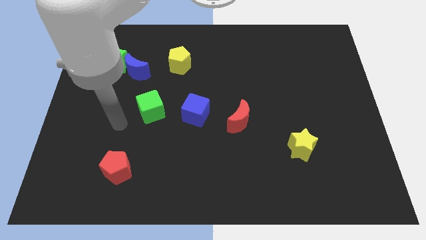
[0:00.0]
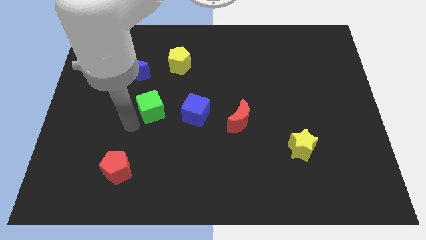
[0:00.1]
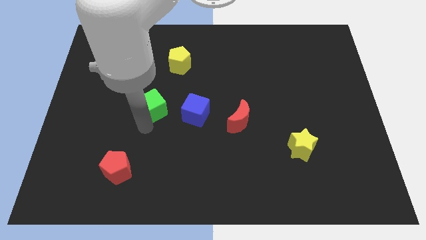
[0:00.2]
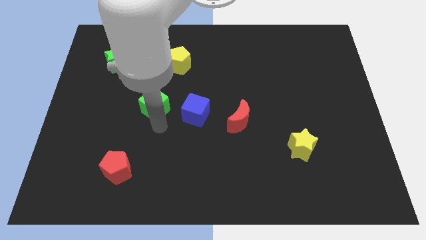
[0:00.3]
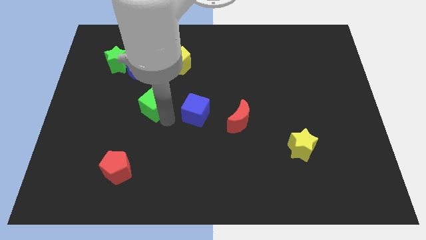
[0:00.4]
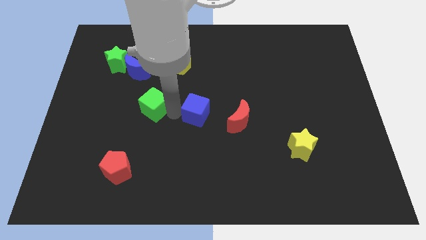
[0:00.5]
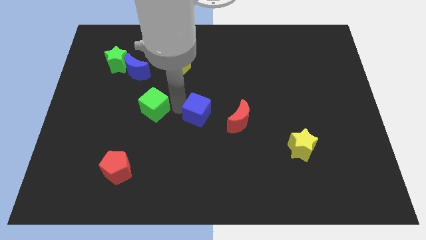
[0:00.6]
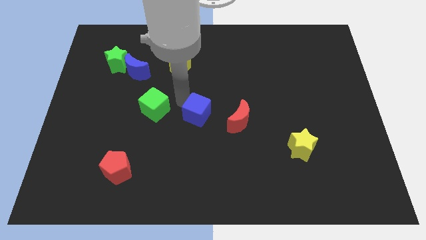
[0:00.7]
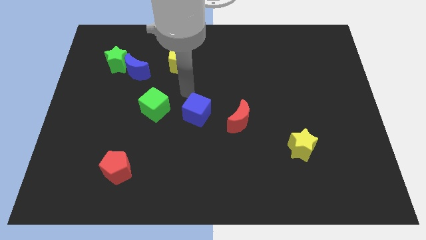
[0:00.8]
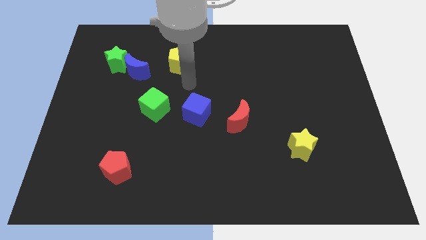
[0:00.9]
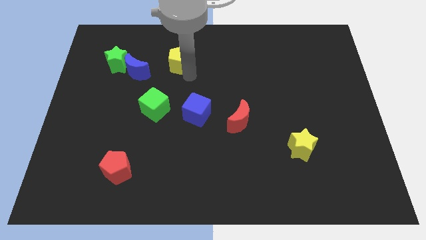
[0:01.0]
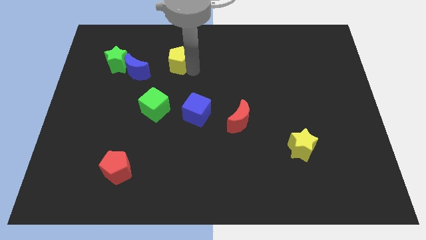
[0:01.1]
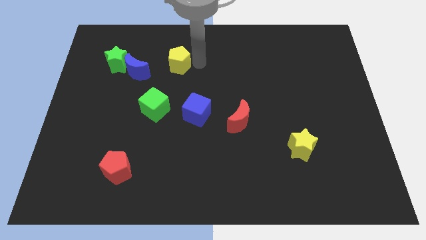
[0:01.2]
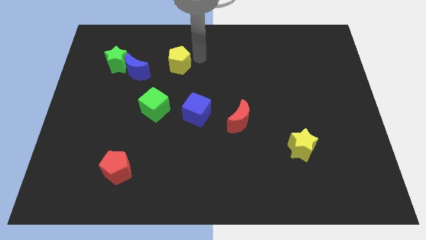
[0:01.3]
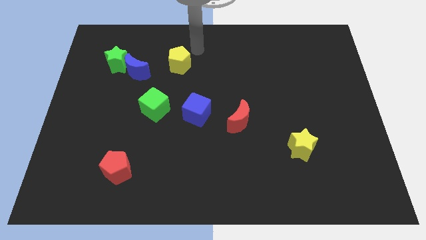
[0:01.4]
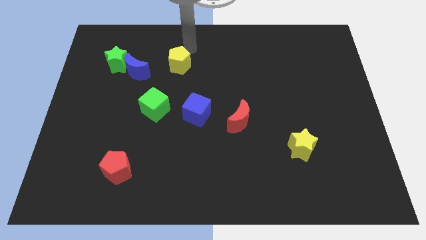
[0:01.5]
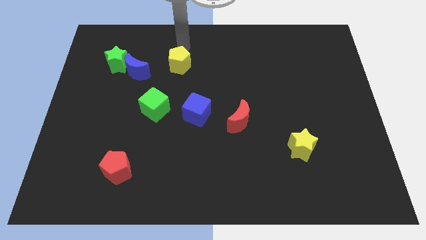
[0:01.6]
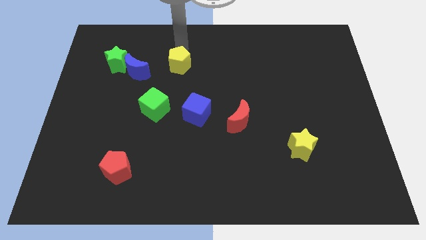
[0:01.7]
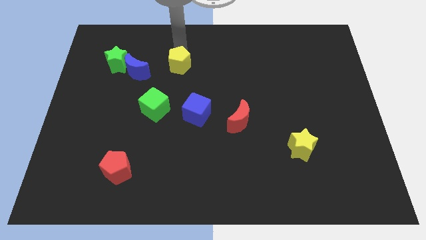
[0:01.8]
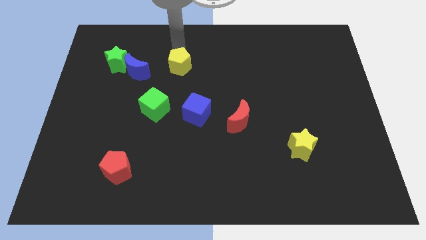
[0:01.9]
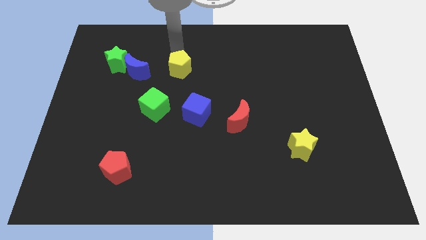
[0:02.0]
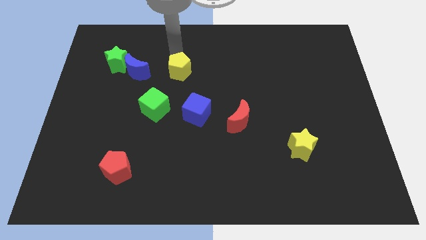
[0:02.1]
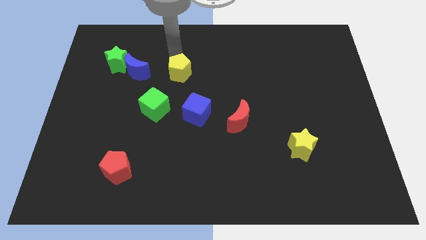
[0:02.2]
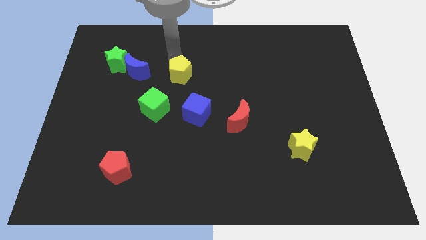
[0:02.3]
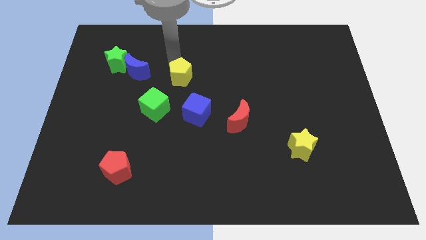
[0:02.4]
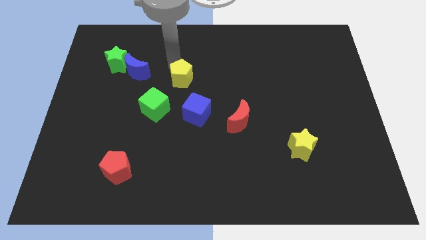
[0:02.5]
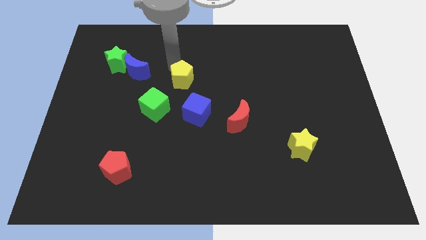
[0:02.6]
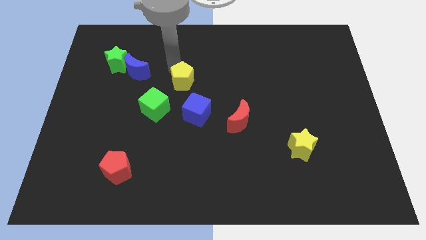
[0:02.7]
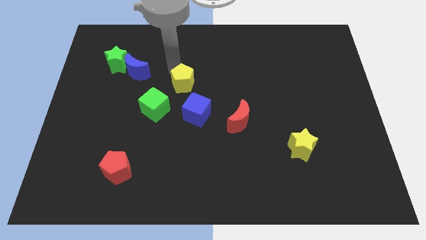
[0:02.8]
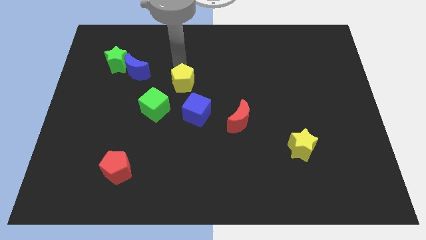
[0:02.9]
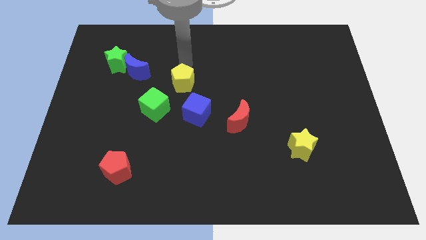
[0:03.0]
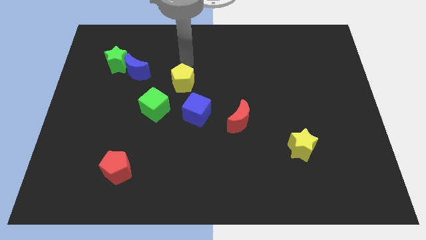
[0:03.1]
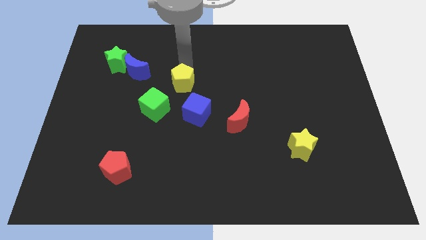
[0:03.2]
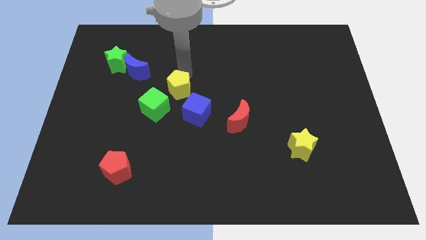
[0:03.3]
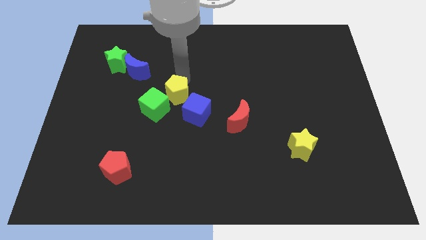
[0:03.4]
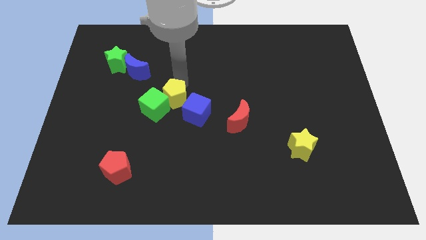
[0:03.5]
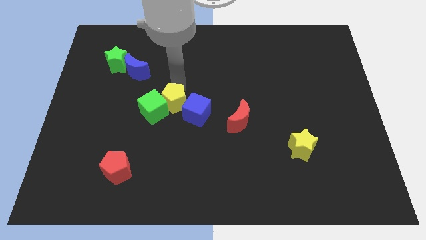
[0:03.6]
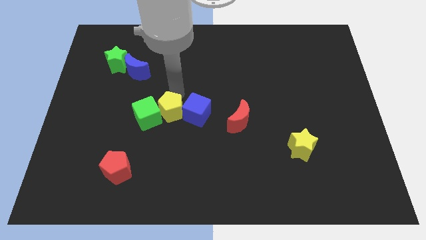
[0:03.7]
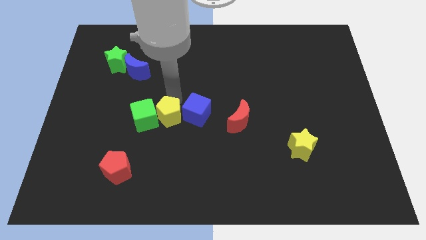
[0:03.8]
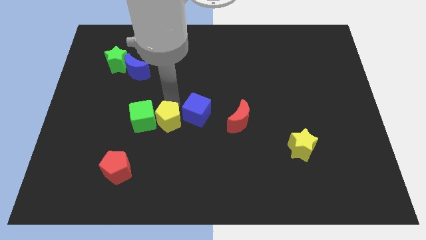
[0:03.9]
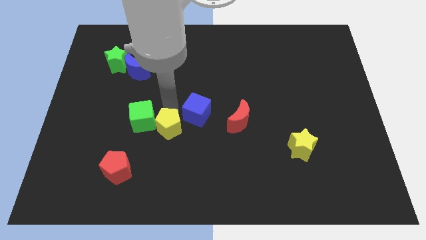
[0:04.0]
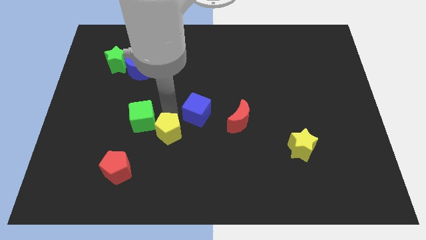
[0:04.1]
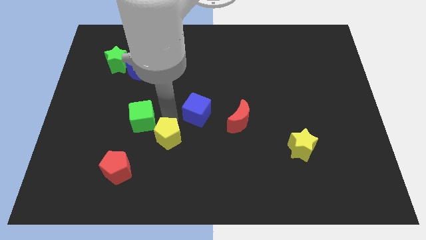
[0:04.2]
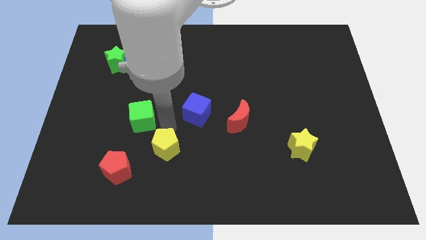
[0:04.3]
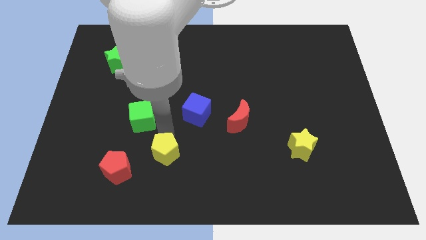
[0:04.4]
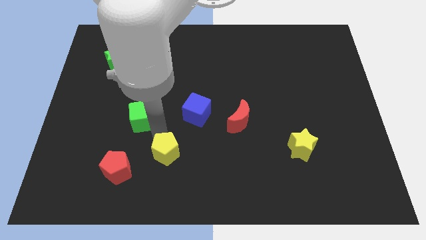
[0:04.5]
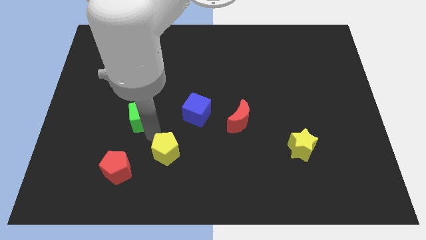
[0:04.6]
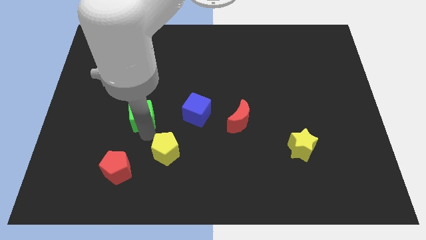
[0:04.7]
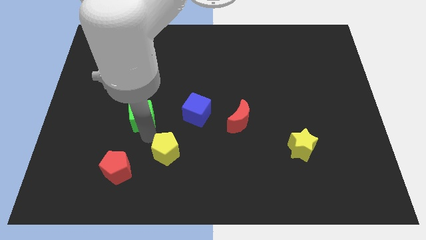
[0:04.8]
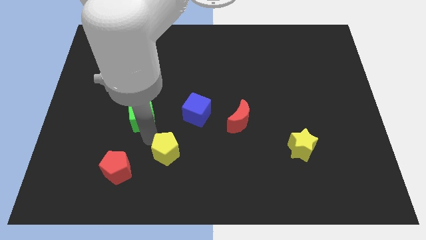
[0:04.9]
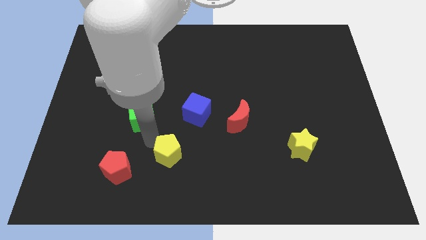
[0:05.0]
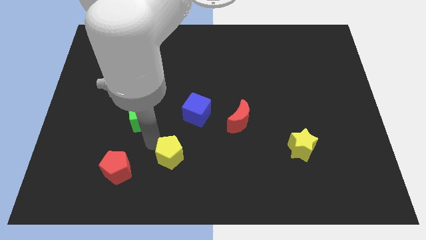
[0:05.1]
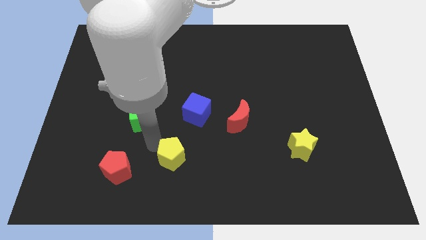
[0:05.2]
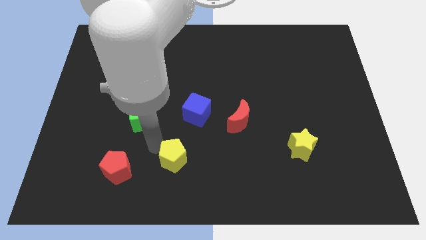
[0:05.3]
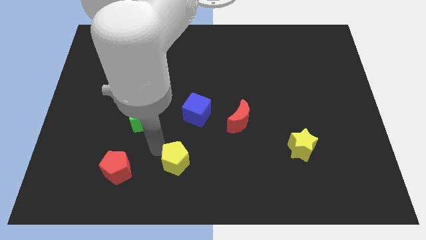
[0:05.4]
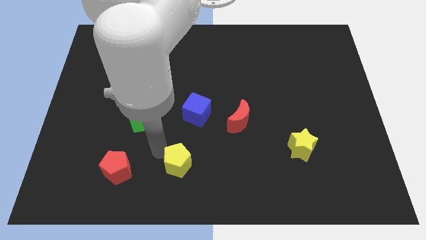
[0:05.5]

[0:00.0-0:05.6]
slide the yellow pentagon to the bottom

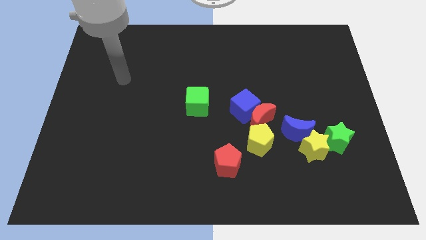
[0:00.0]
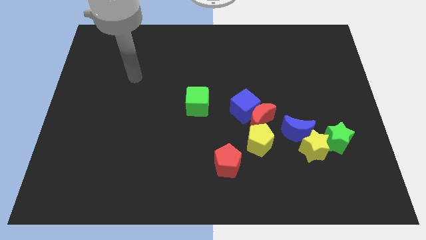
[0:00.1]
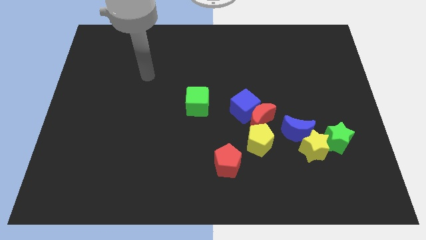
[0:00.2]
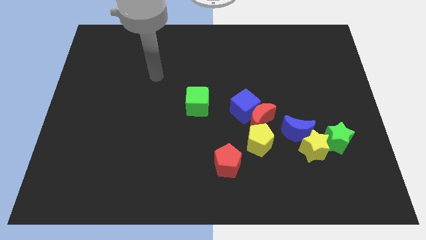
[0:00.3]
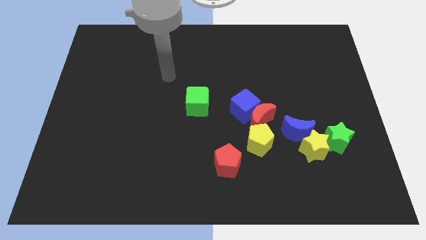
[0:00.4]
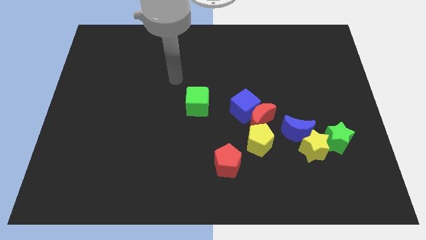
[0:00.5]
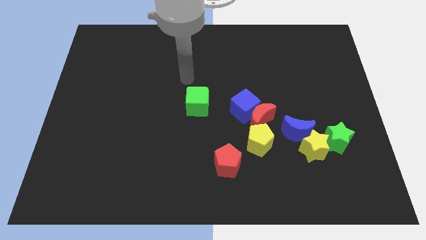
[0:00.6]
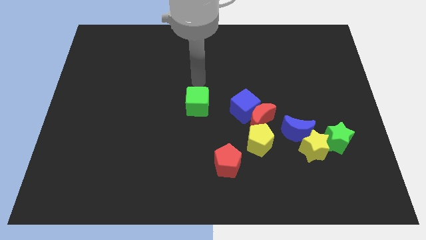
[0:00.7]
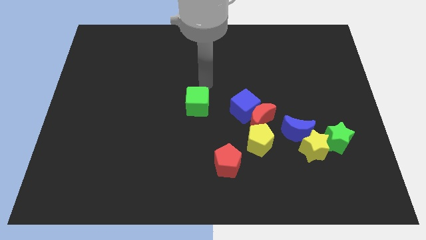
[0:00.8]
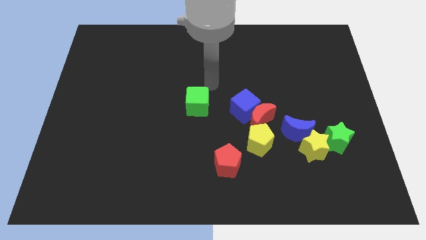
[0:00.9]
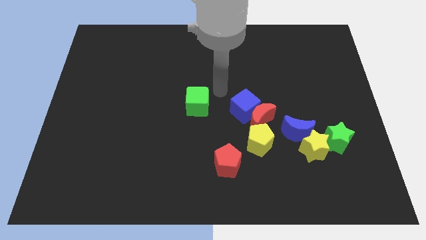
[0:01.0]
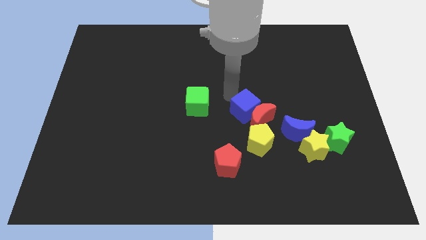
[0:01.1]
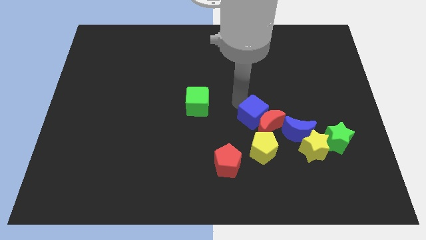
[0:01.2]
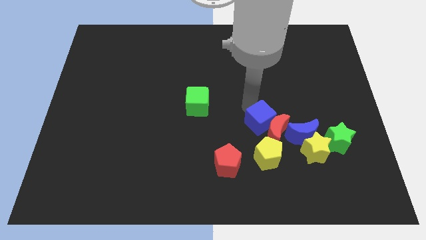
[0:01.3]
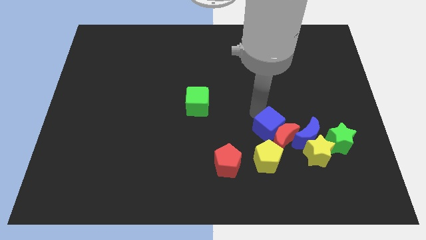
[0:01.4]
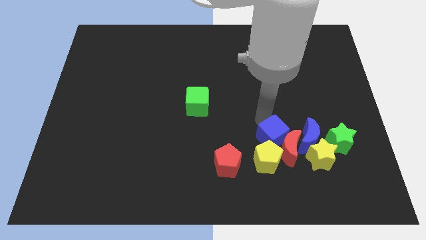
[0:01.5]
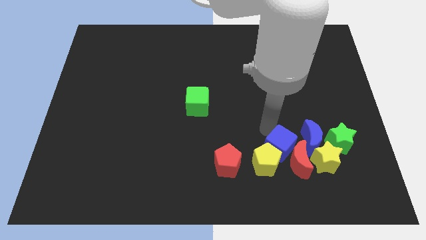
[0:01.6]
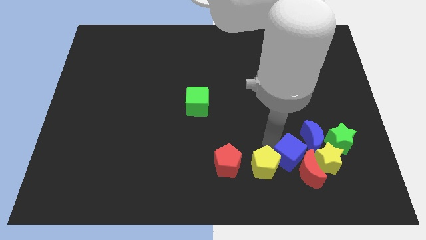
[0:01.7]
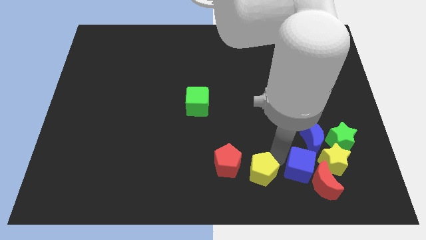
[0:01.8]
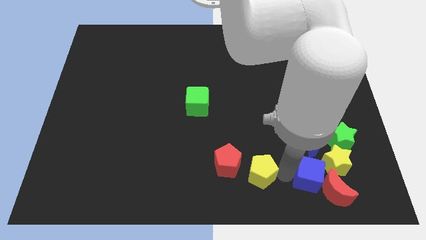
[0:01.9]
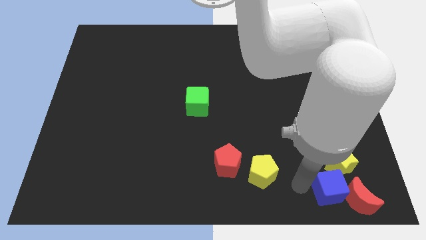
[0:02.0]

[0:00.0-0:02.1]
move the red moon to the bottom right
